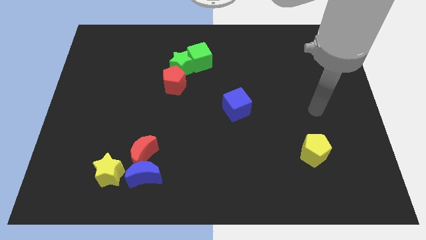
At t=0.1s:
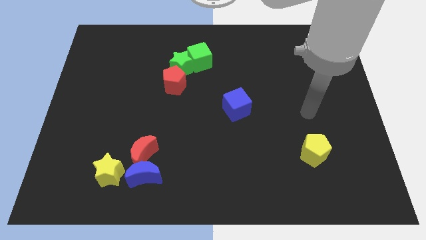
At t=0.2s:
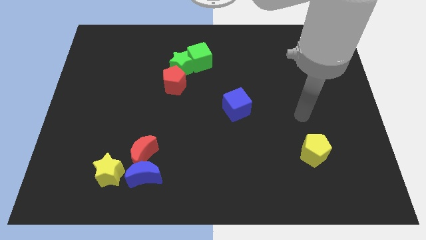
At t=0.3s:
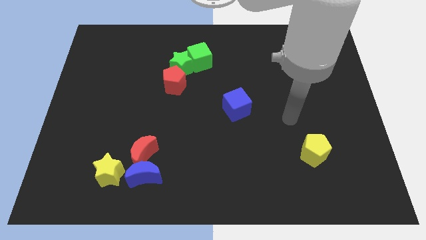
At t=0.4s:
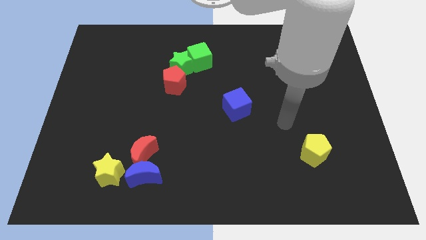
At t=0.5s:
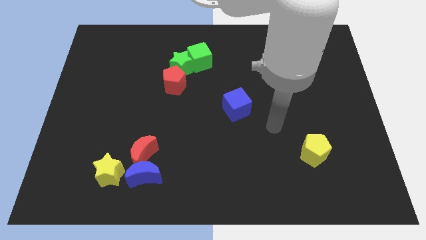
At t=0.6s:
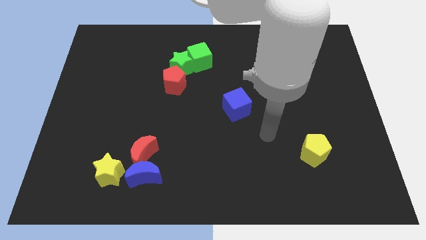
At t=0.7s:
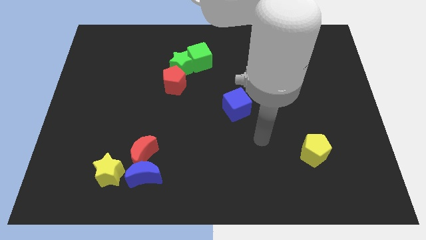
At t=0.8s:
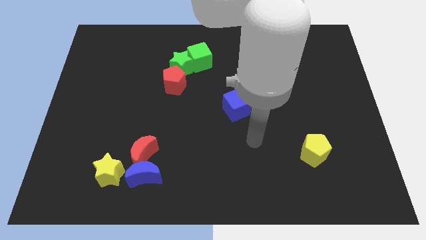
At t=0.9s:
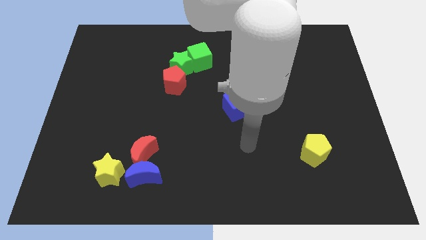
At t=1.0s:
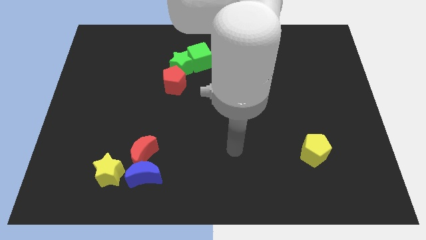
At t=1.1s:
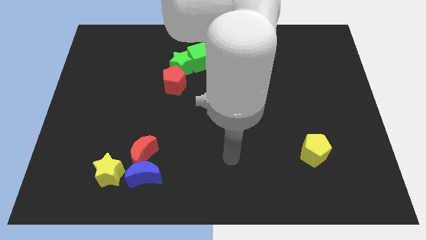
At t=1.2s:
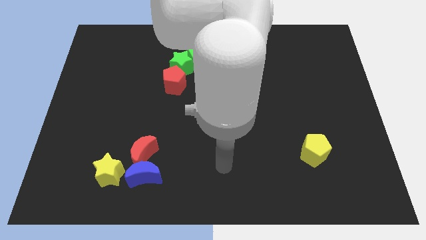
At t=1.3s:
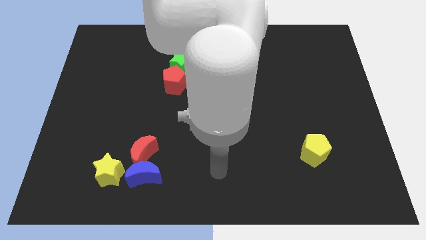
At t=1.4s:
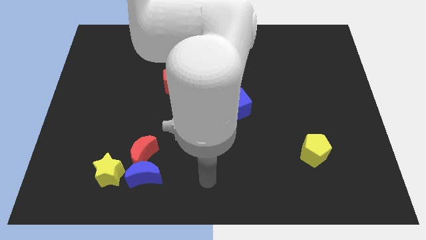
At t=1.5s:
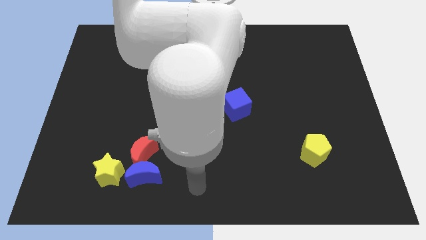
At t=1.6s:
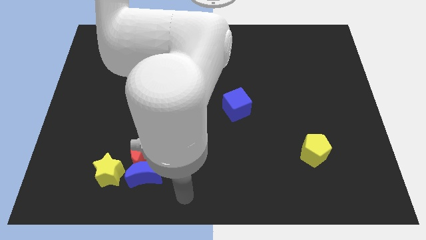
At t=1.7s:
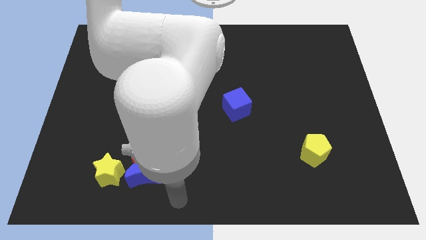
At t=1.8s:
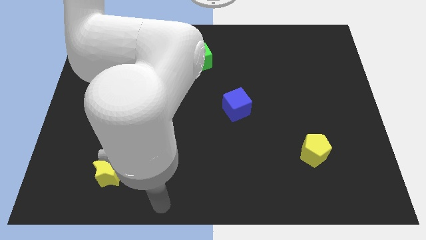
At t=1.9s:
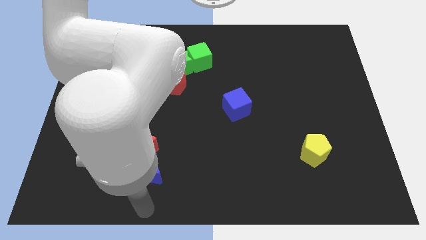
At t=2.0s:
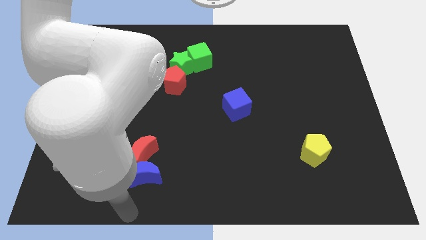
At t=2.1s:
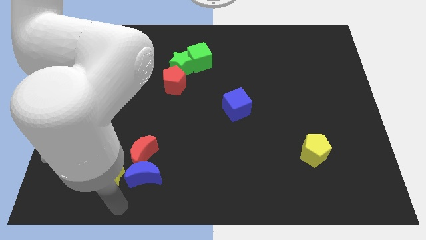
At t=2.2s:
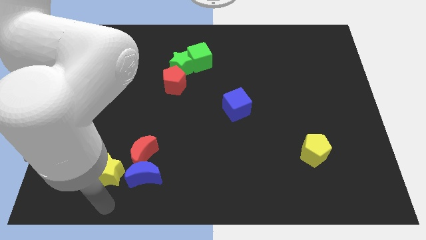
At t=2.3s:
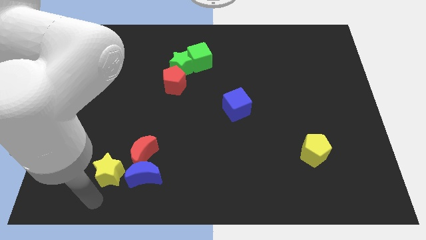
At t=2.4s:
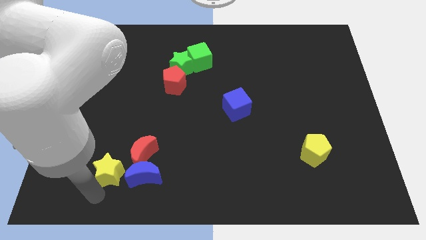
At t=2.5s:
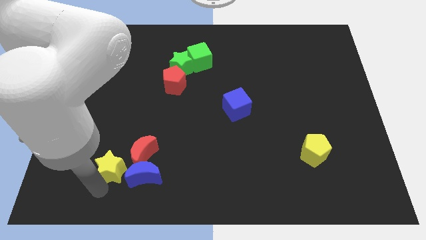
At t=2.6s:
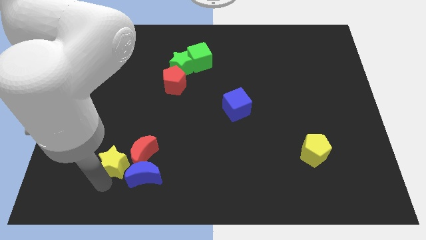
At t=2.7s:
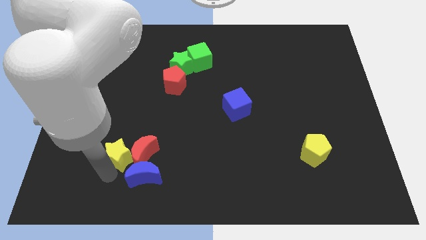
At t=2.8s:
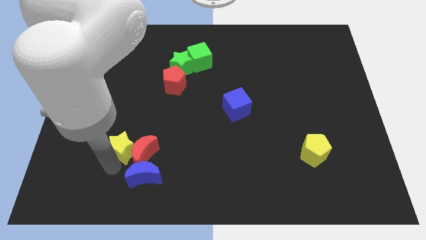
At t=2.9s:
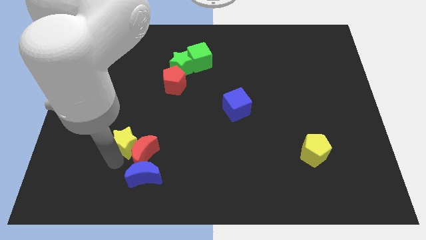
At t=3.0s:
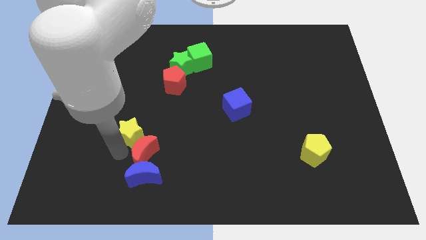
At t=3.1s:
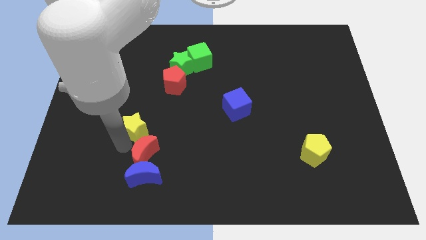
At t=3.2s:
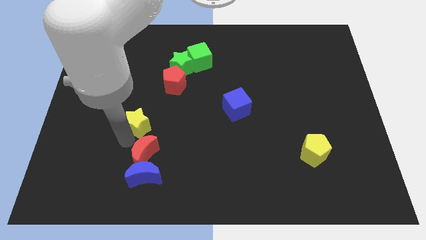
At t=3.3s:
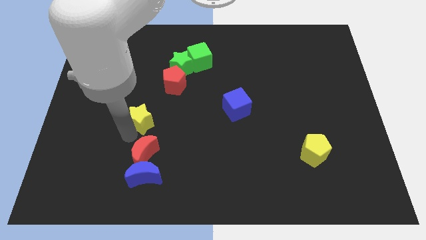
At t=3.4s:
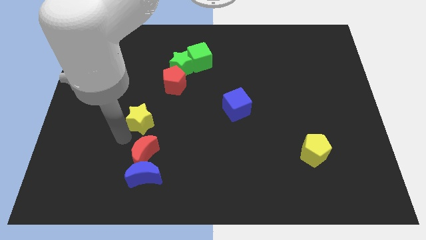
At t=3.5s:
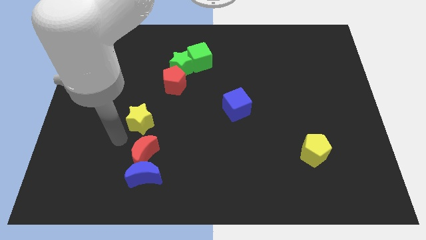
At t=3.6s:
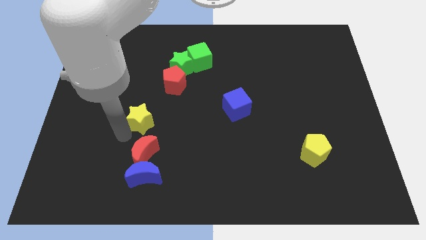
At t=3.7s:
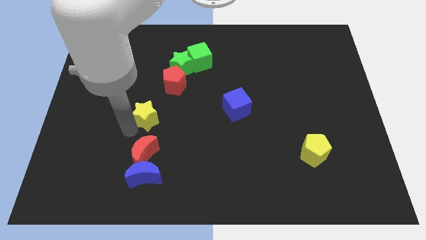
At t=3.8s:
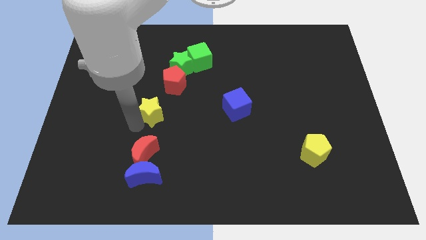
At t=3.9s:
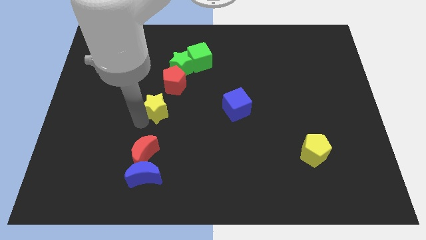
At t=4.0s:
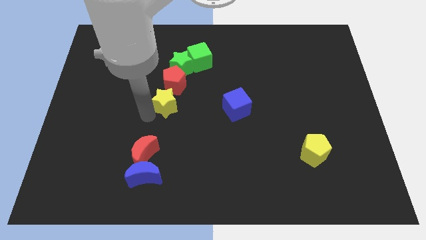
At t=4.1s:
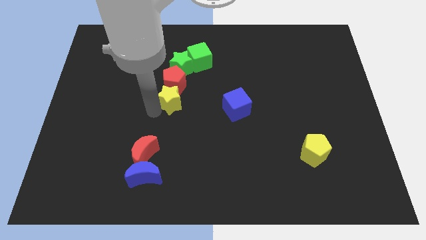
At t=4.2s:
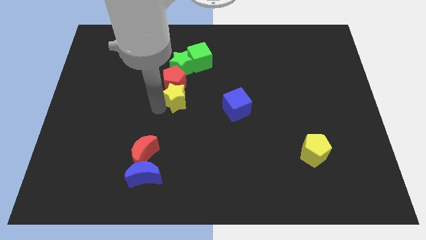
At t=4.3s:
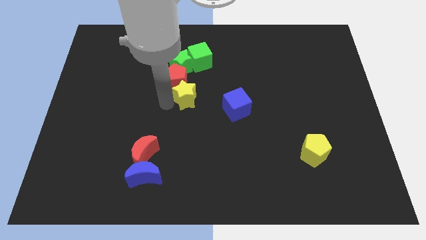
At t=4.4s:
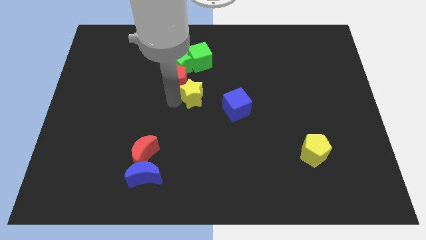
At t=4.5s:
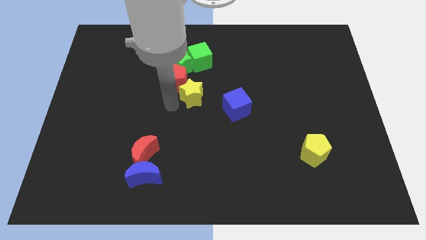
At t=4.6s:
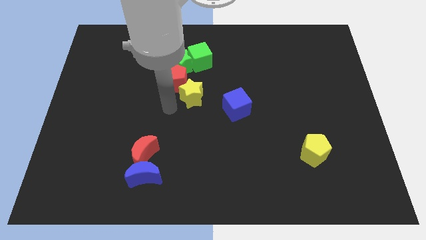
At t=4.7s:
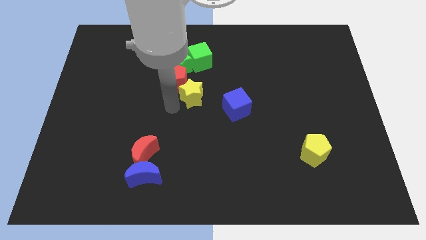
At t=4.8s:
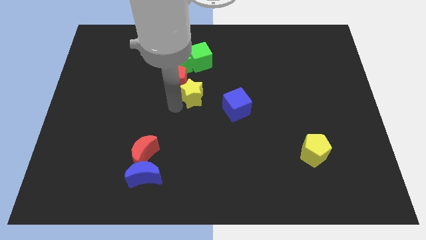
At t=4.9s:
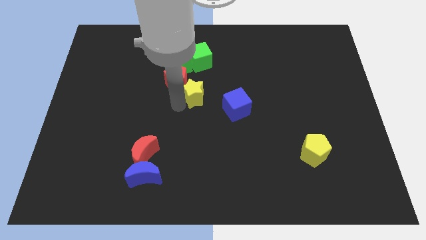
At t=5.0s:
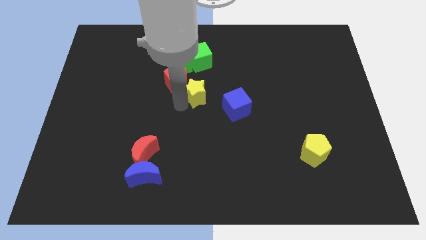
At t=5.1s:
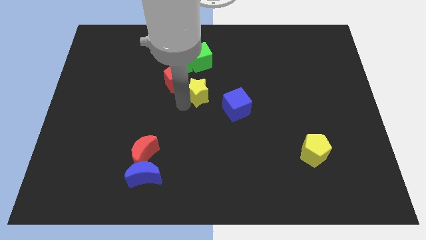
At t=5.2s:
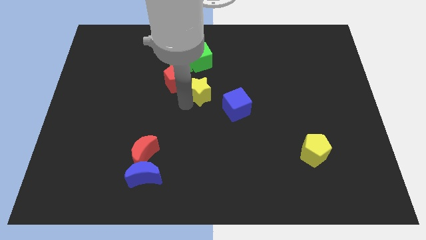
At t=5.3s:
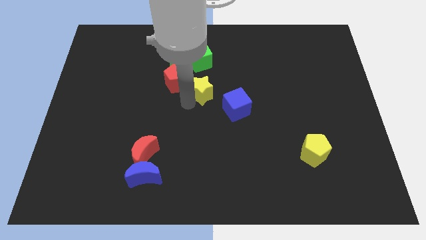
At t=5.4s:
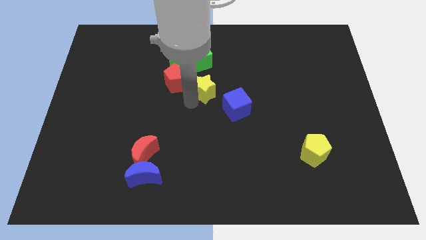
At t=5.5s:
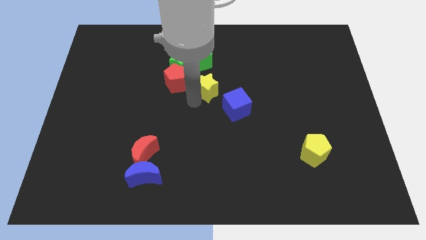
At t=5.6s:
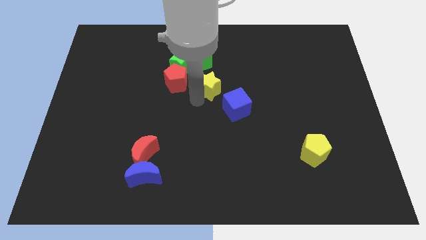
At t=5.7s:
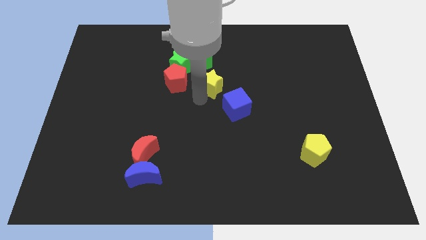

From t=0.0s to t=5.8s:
slide the yellow star diagonally down and to the right of the green cube

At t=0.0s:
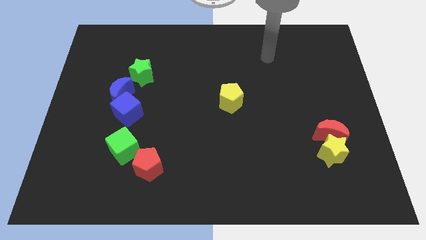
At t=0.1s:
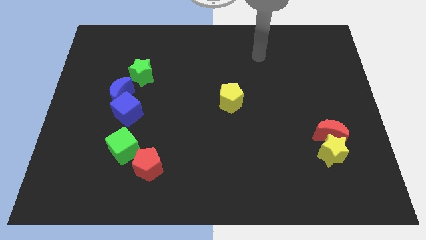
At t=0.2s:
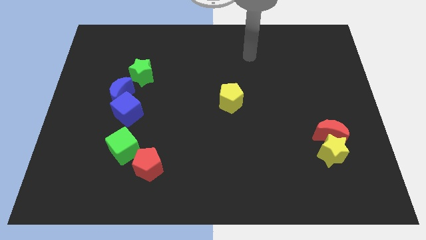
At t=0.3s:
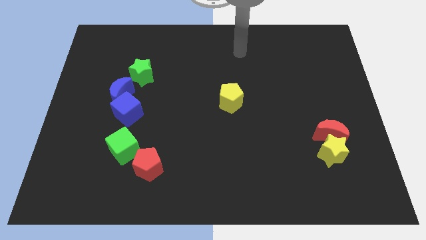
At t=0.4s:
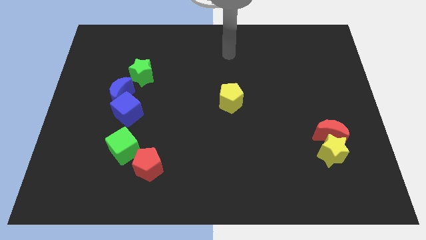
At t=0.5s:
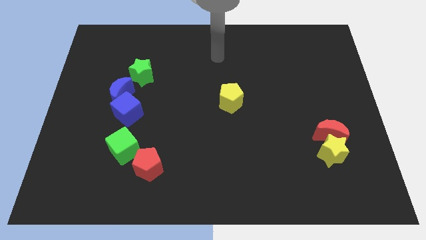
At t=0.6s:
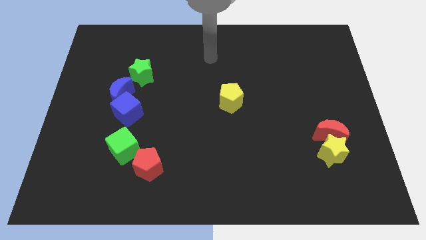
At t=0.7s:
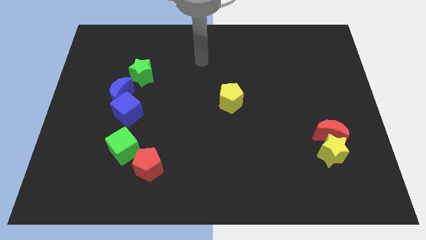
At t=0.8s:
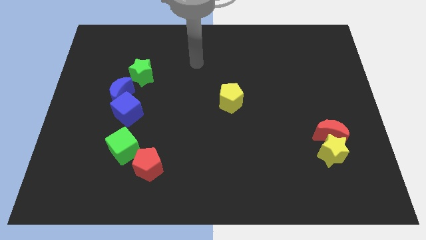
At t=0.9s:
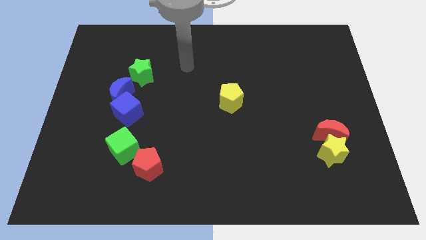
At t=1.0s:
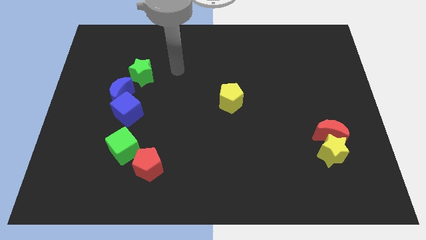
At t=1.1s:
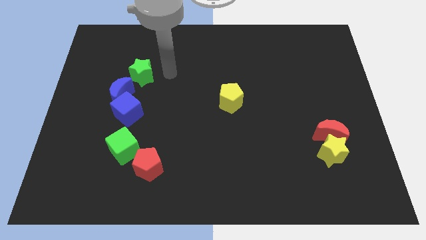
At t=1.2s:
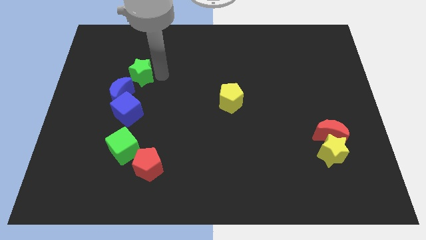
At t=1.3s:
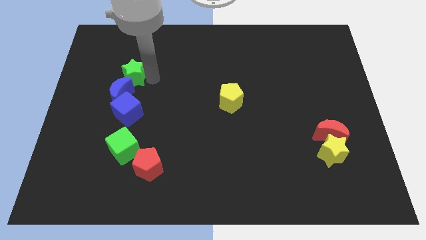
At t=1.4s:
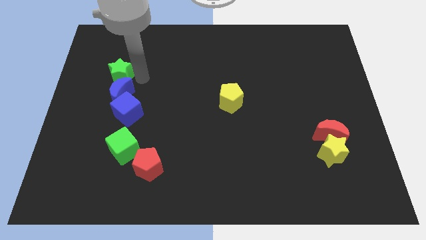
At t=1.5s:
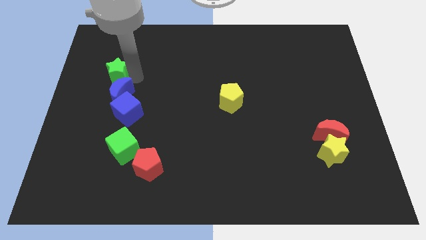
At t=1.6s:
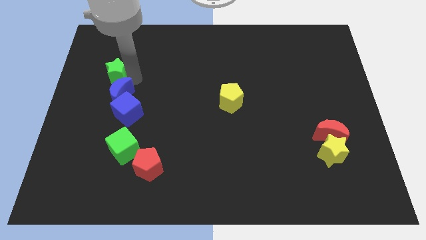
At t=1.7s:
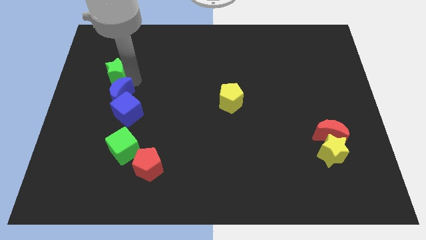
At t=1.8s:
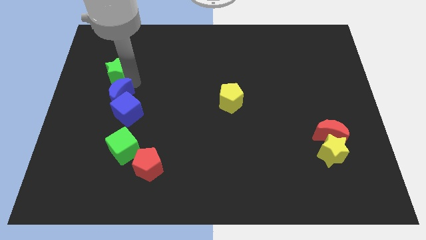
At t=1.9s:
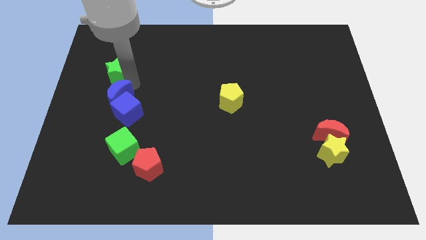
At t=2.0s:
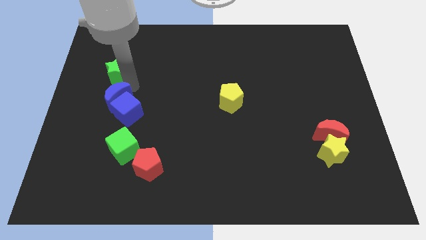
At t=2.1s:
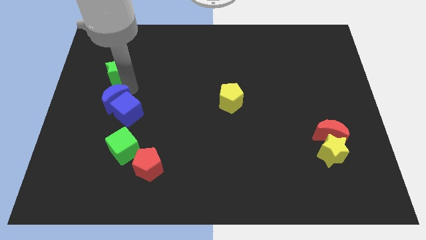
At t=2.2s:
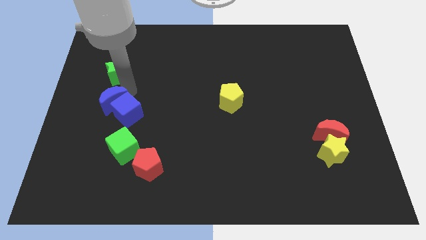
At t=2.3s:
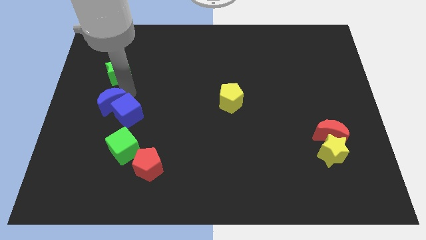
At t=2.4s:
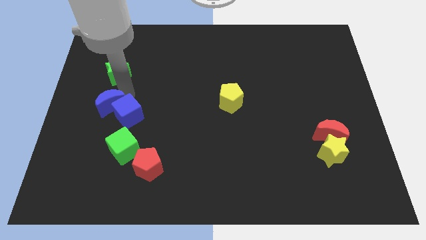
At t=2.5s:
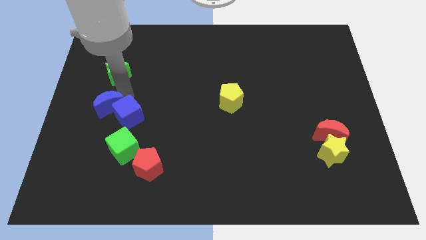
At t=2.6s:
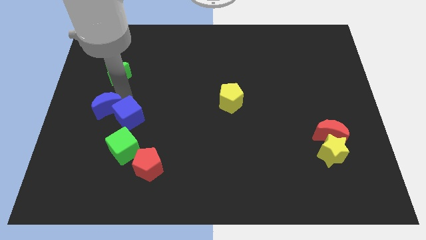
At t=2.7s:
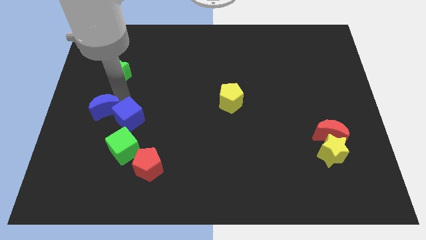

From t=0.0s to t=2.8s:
put the blue moon diagonally up and to the left of the green cube
